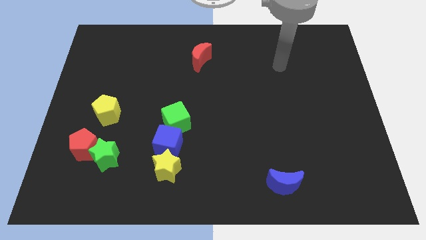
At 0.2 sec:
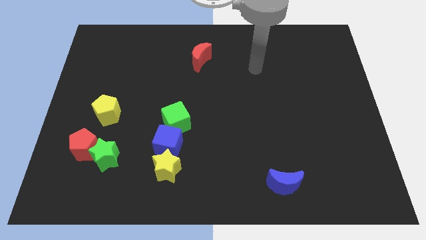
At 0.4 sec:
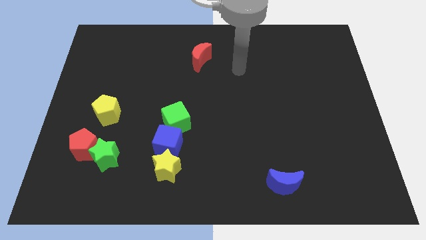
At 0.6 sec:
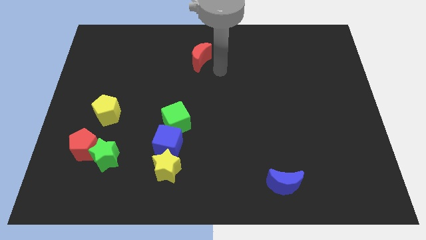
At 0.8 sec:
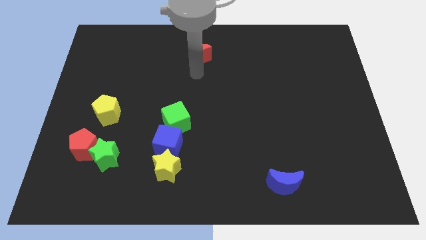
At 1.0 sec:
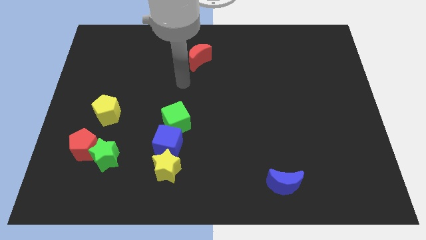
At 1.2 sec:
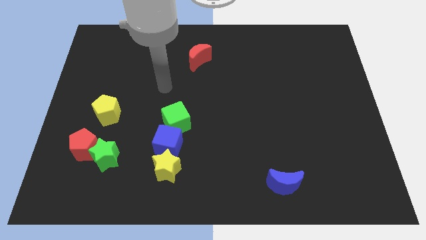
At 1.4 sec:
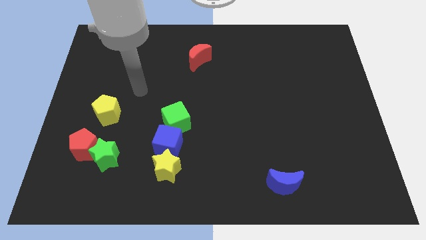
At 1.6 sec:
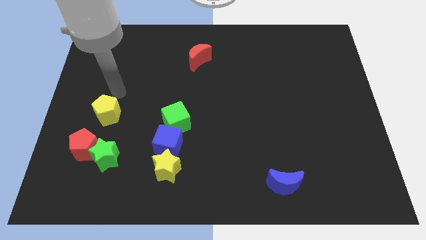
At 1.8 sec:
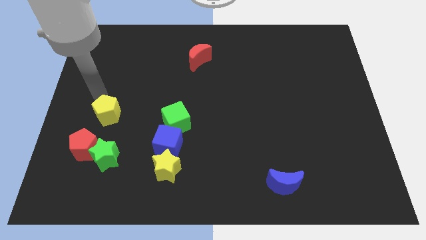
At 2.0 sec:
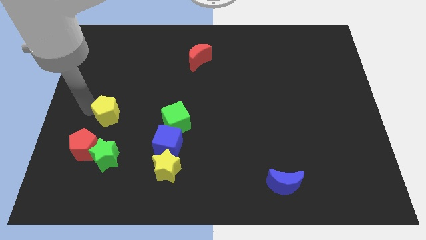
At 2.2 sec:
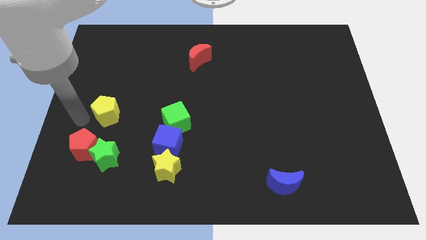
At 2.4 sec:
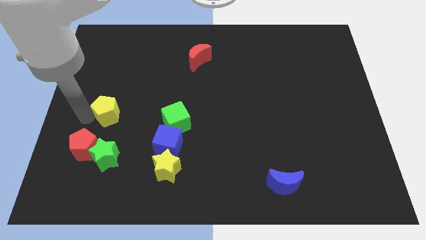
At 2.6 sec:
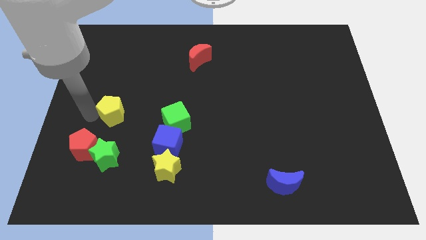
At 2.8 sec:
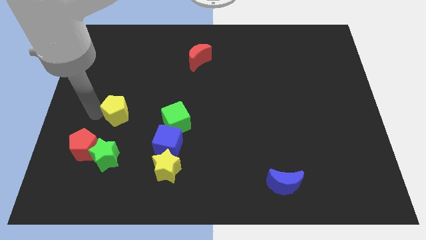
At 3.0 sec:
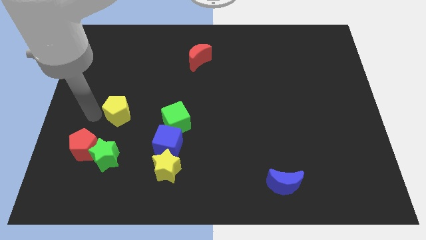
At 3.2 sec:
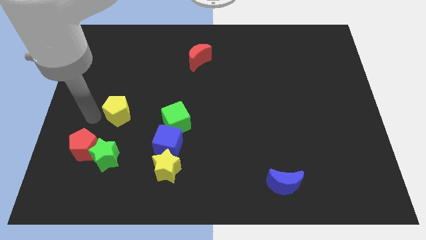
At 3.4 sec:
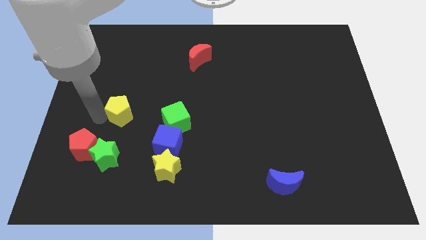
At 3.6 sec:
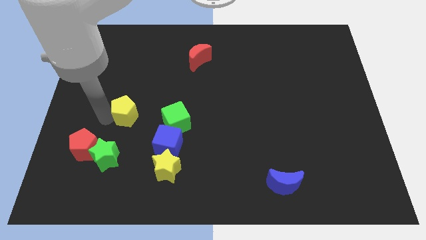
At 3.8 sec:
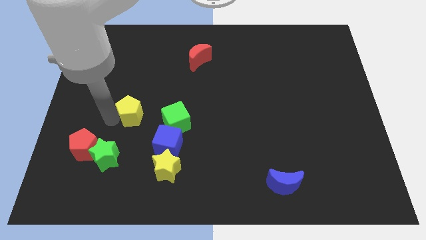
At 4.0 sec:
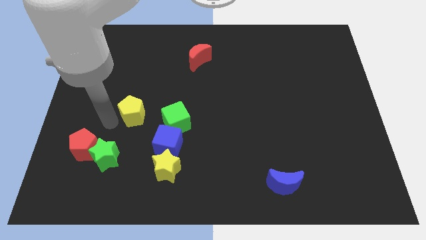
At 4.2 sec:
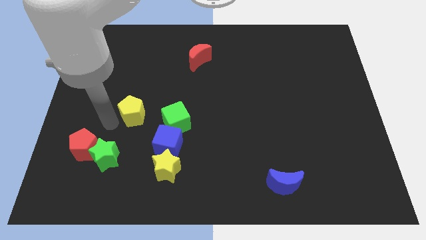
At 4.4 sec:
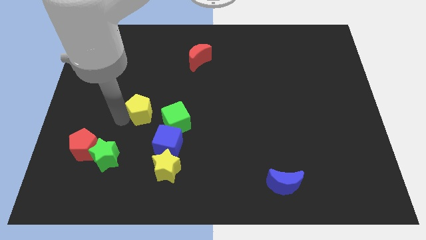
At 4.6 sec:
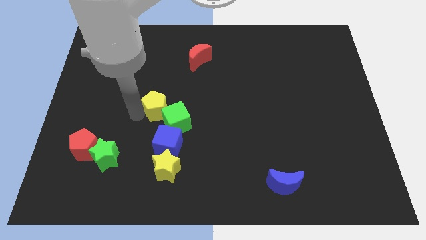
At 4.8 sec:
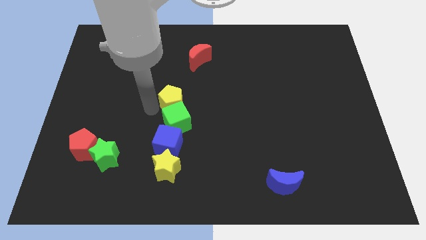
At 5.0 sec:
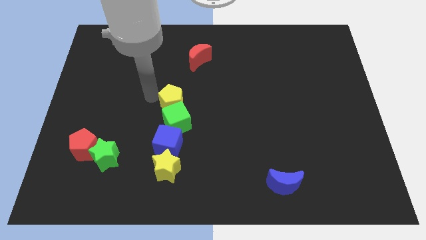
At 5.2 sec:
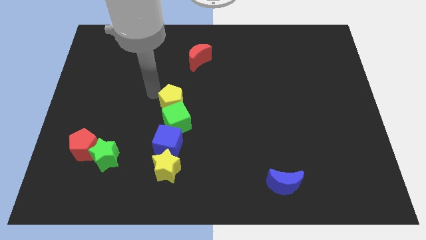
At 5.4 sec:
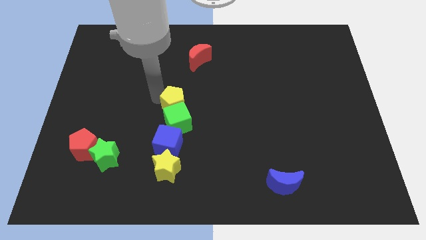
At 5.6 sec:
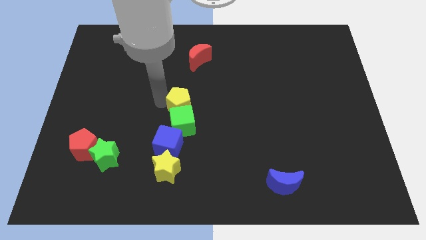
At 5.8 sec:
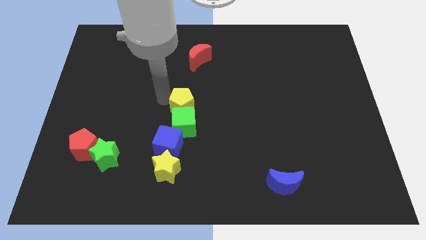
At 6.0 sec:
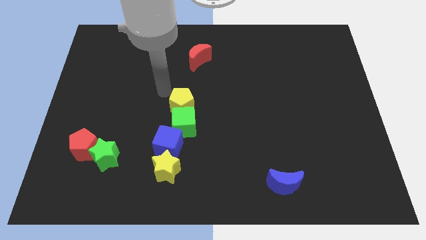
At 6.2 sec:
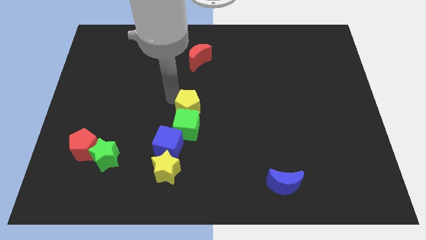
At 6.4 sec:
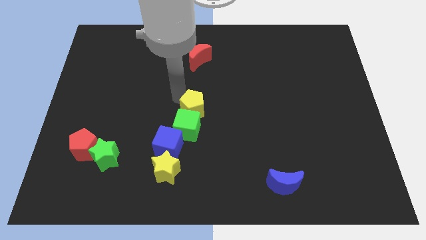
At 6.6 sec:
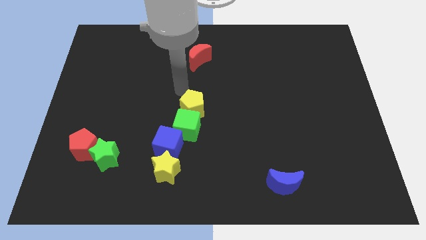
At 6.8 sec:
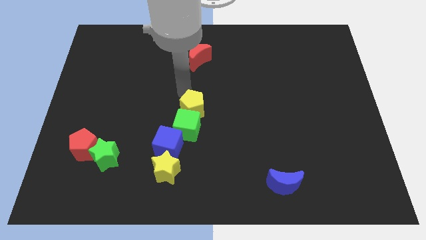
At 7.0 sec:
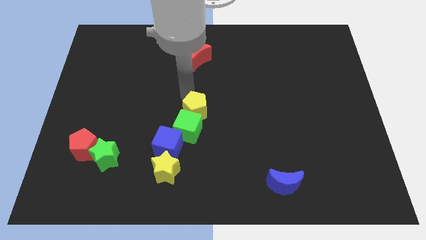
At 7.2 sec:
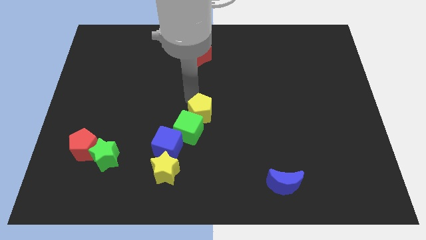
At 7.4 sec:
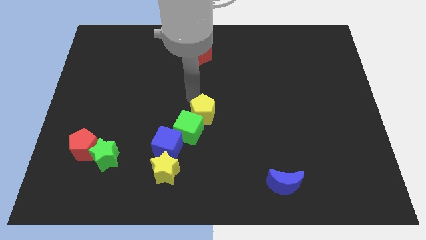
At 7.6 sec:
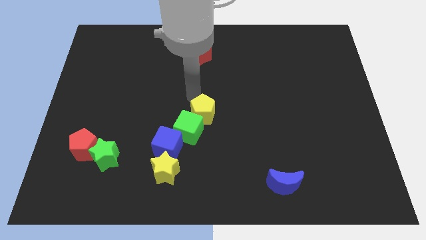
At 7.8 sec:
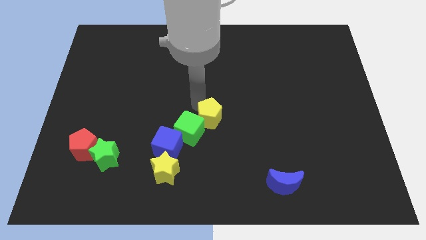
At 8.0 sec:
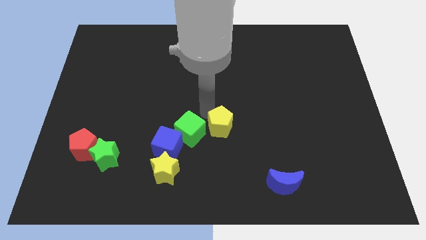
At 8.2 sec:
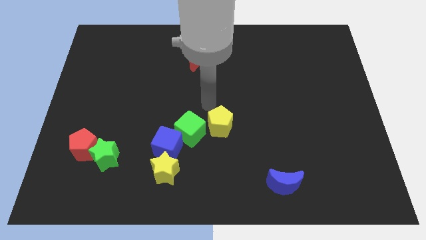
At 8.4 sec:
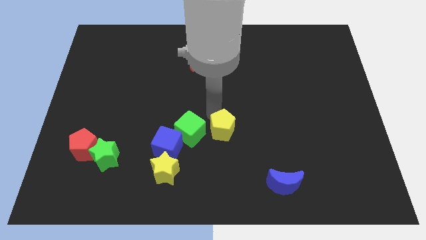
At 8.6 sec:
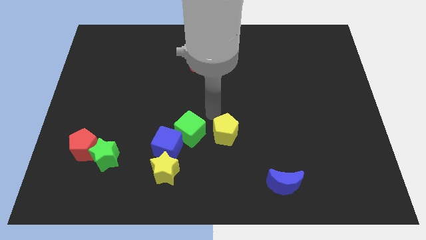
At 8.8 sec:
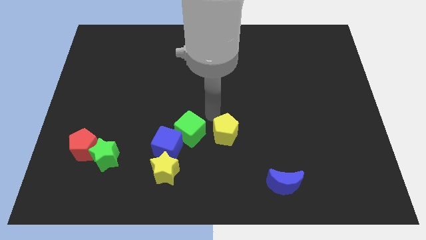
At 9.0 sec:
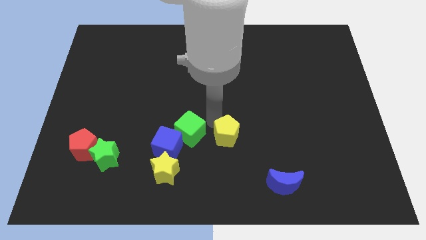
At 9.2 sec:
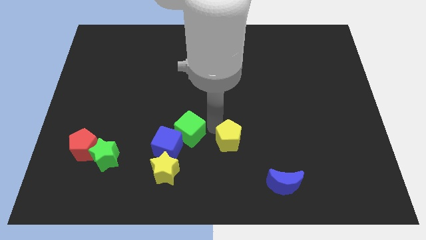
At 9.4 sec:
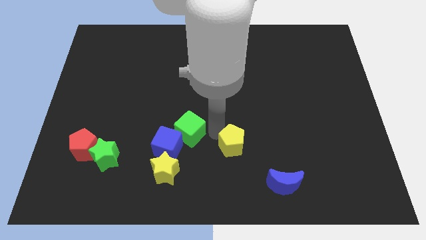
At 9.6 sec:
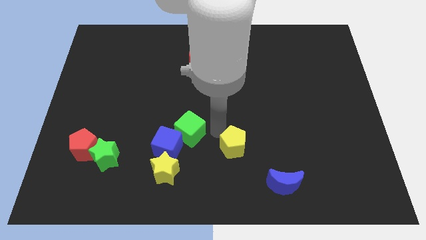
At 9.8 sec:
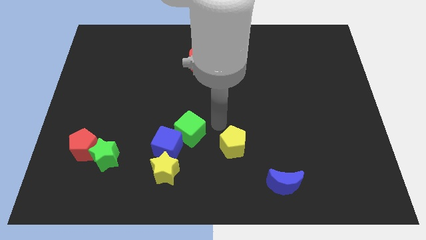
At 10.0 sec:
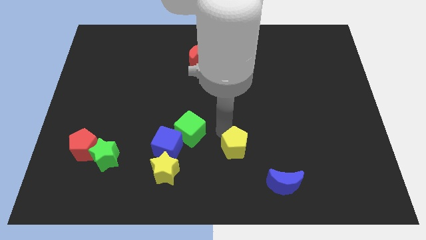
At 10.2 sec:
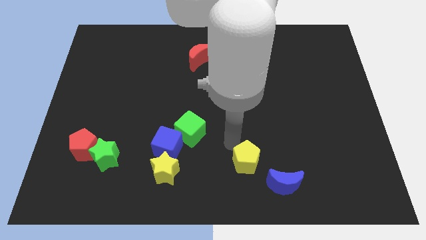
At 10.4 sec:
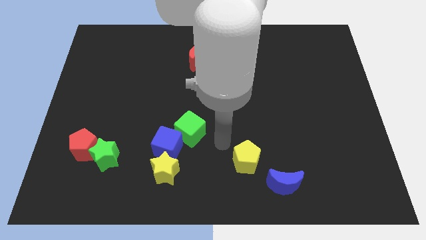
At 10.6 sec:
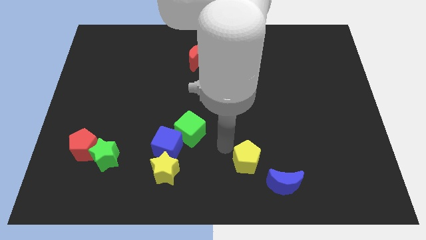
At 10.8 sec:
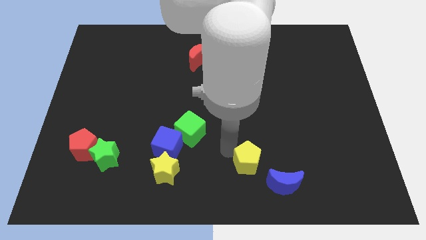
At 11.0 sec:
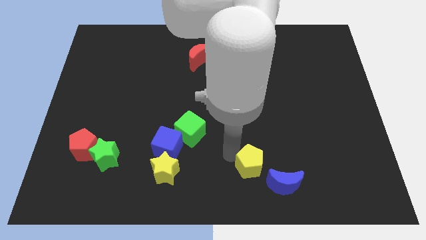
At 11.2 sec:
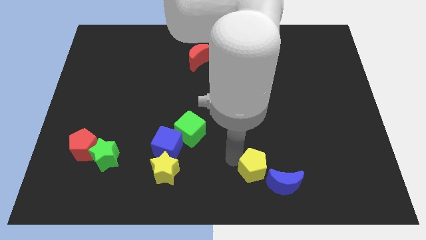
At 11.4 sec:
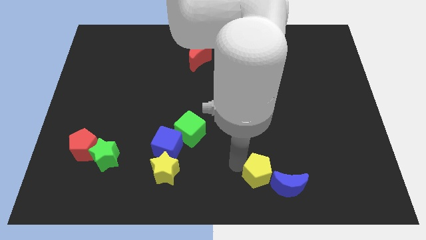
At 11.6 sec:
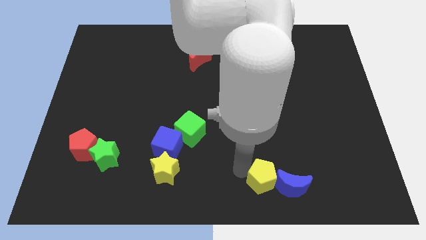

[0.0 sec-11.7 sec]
push the yellow pentagon next to the blue moon
